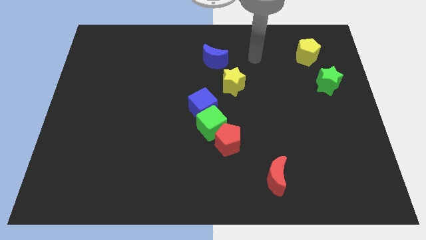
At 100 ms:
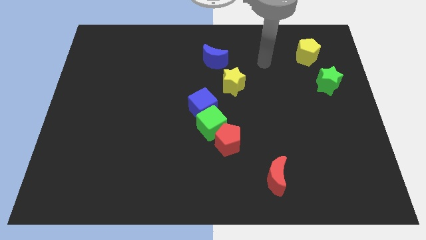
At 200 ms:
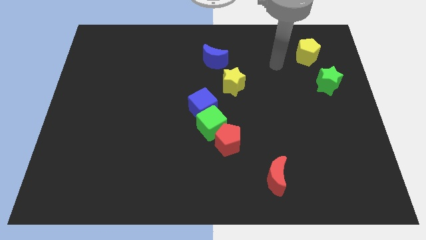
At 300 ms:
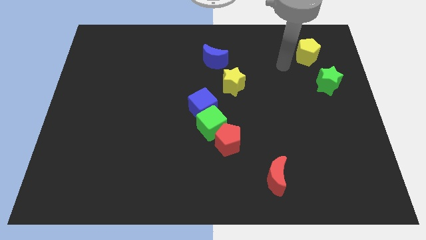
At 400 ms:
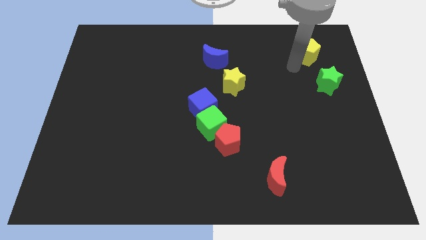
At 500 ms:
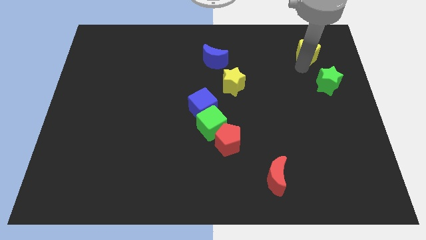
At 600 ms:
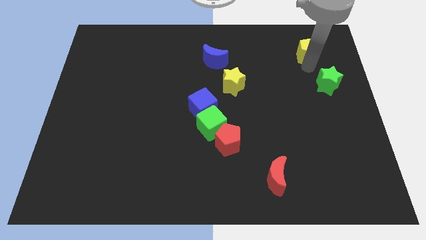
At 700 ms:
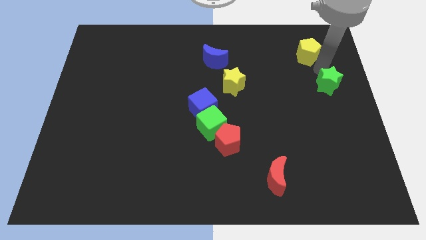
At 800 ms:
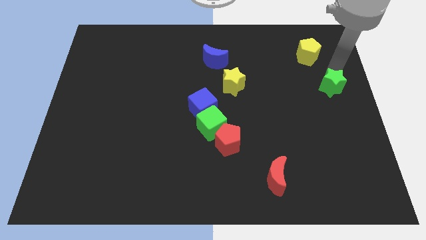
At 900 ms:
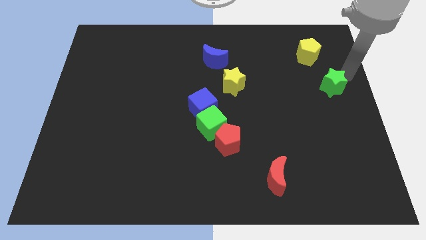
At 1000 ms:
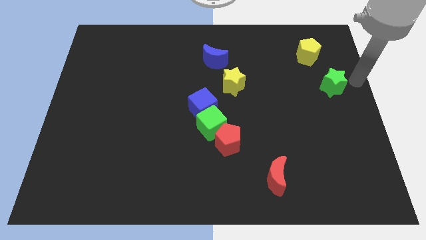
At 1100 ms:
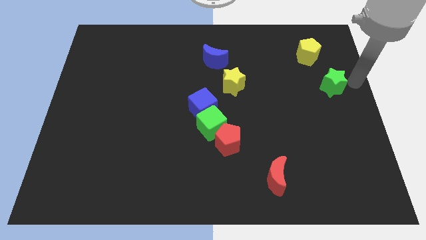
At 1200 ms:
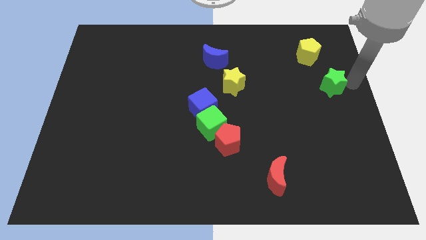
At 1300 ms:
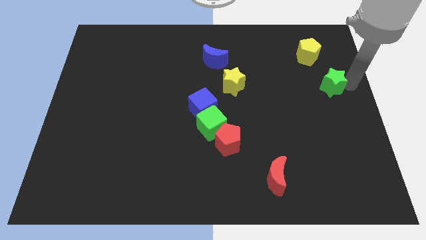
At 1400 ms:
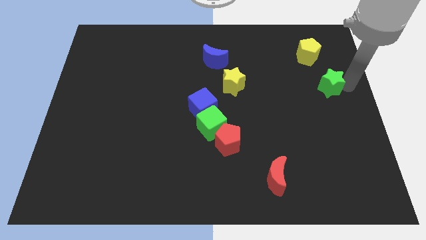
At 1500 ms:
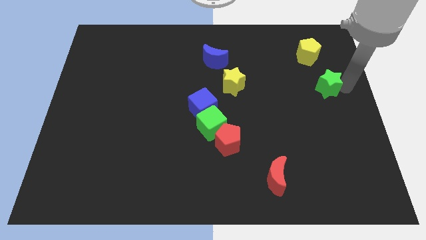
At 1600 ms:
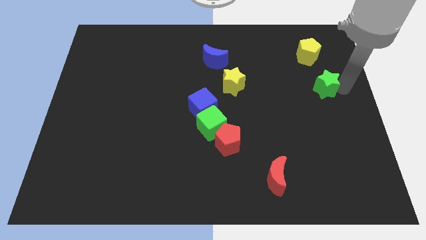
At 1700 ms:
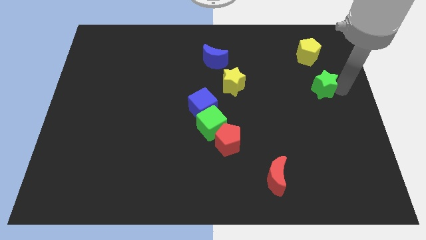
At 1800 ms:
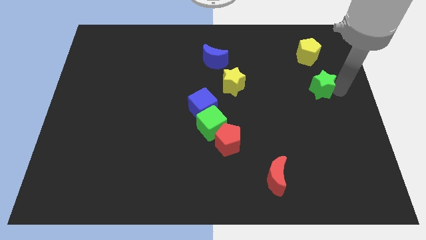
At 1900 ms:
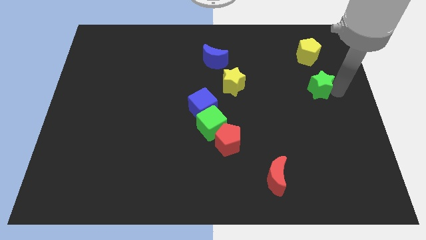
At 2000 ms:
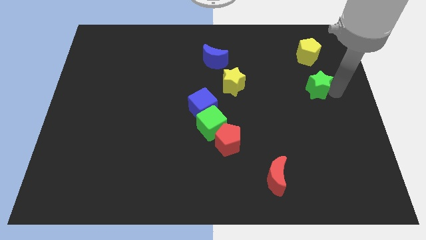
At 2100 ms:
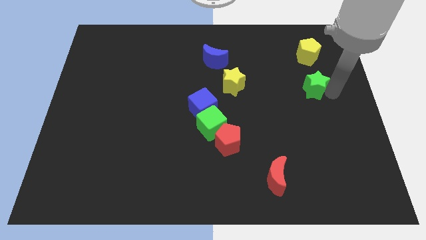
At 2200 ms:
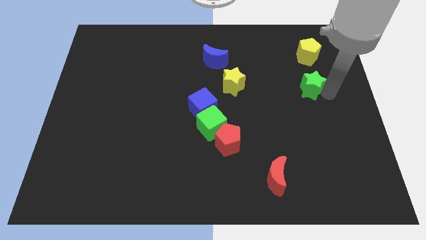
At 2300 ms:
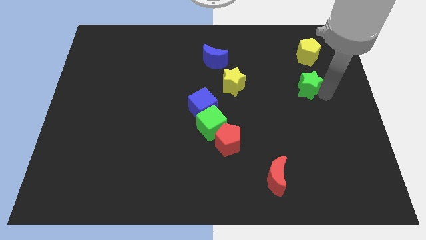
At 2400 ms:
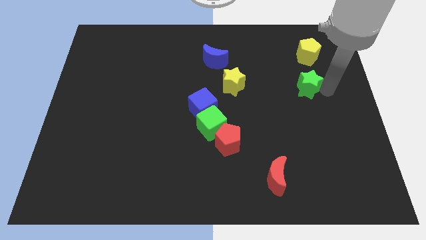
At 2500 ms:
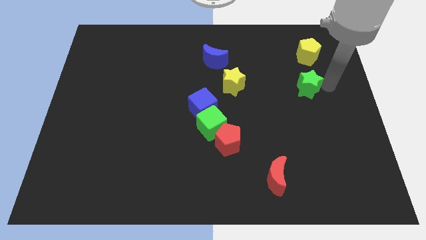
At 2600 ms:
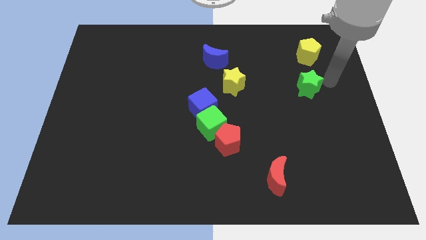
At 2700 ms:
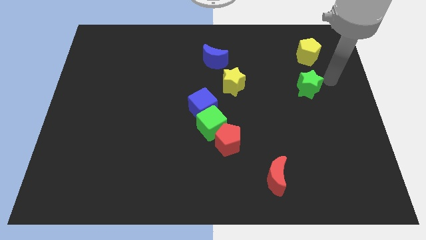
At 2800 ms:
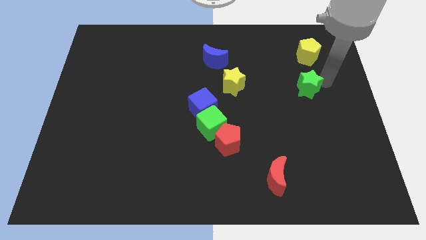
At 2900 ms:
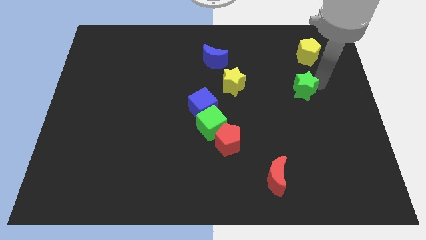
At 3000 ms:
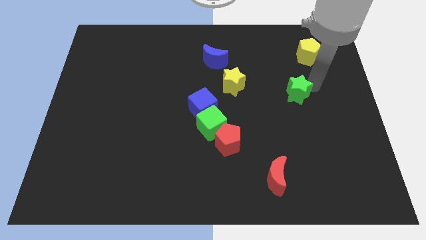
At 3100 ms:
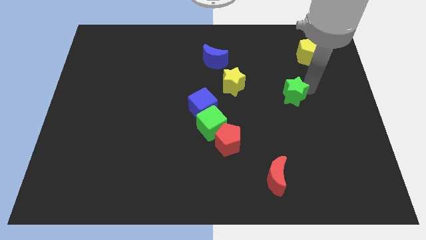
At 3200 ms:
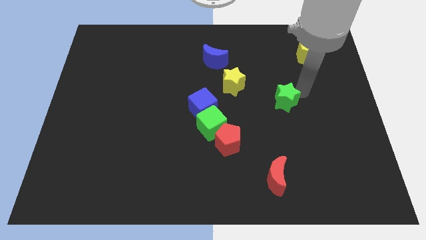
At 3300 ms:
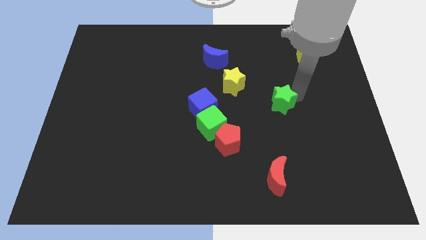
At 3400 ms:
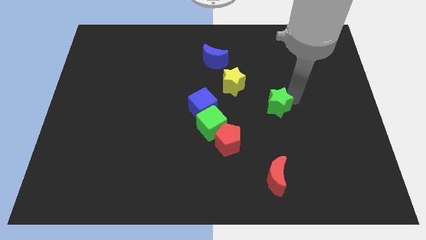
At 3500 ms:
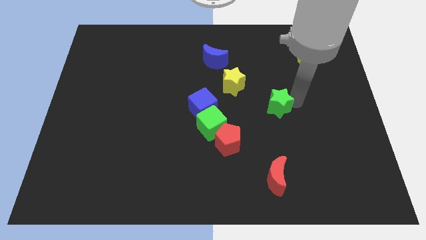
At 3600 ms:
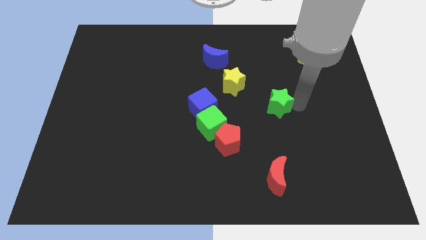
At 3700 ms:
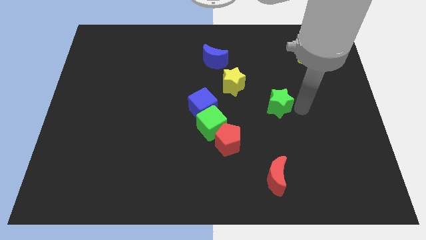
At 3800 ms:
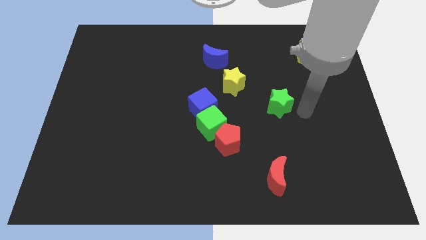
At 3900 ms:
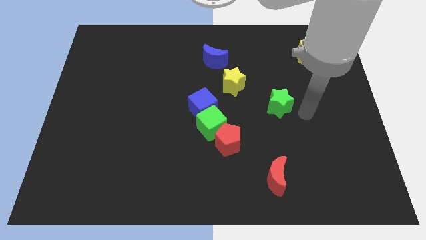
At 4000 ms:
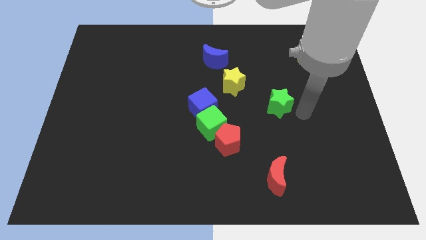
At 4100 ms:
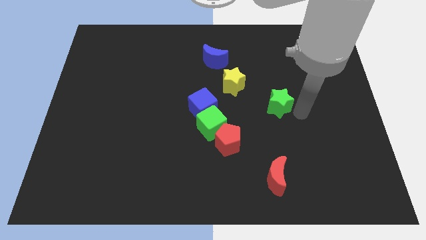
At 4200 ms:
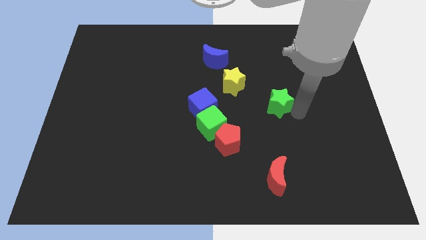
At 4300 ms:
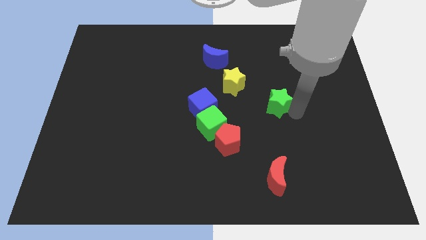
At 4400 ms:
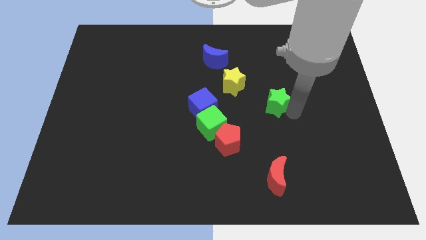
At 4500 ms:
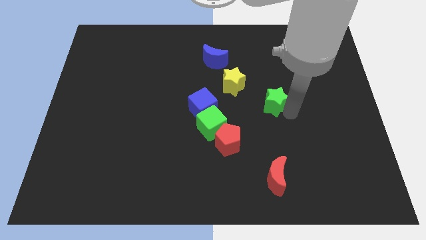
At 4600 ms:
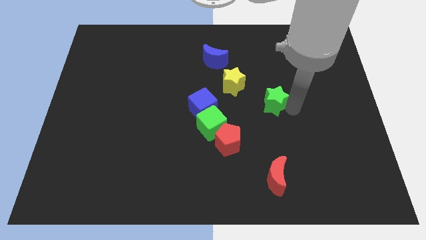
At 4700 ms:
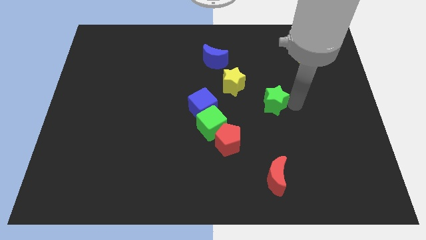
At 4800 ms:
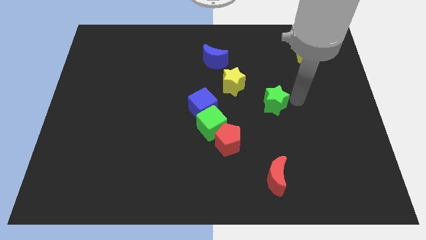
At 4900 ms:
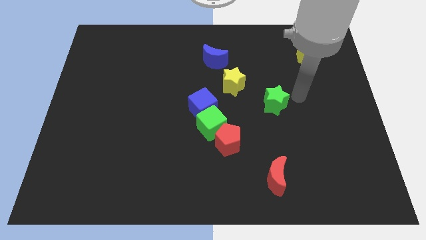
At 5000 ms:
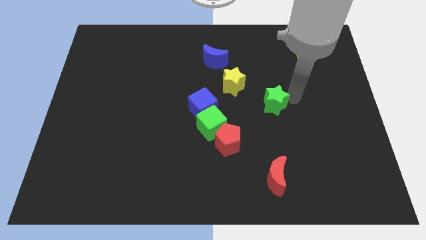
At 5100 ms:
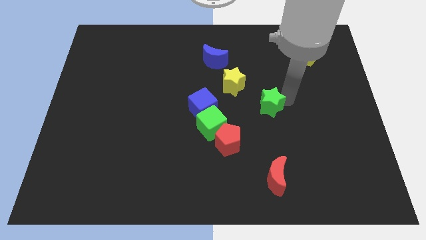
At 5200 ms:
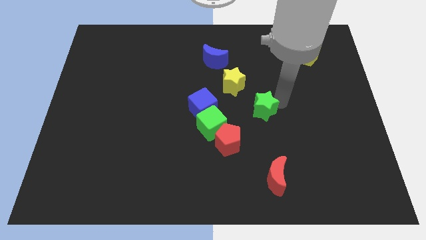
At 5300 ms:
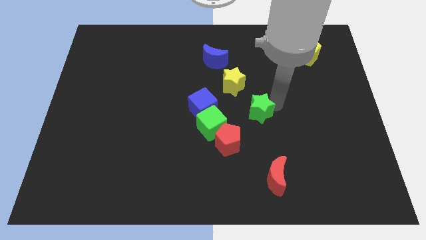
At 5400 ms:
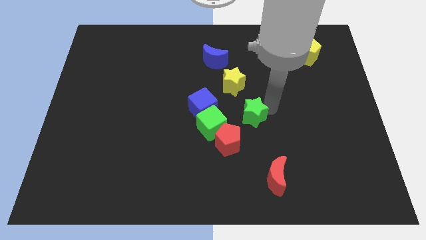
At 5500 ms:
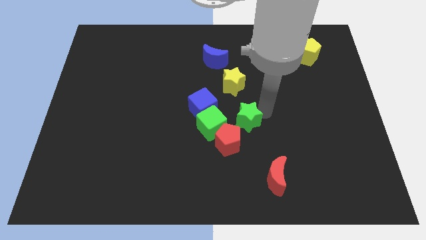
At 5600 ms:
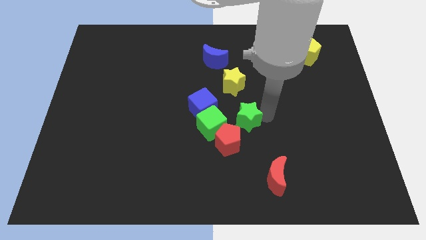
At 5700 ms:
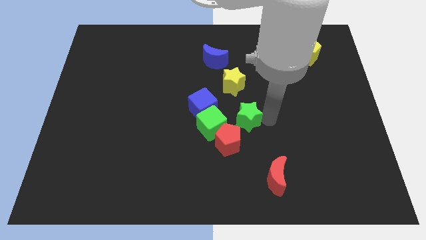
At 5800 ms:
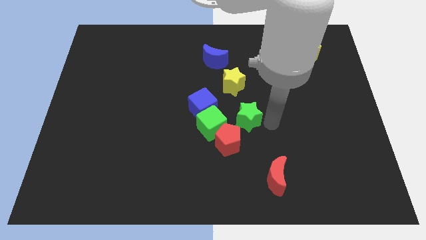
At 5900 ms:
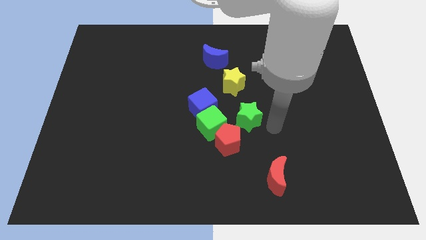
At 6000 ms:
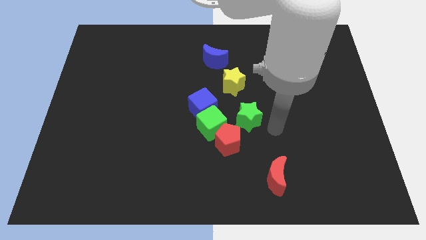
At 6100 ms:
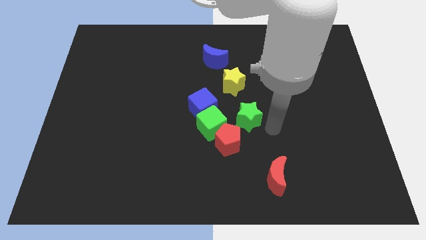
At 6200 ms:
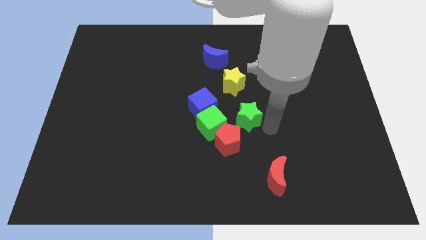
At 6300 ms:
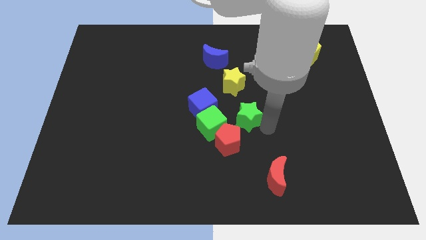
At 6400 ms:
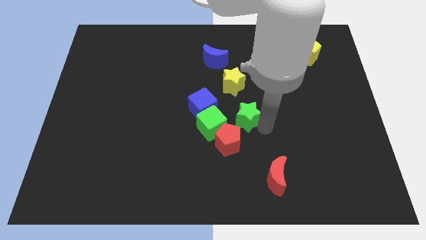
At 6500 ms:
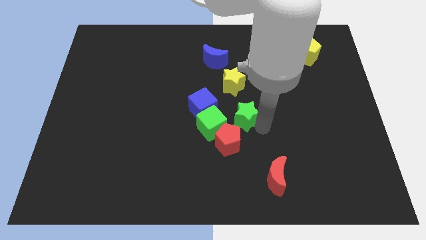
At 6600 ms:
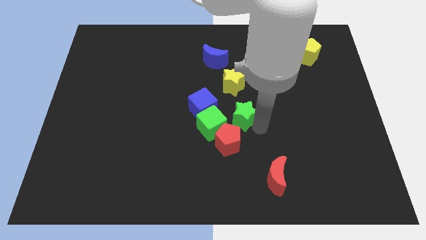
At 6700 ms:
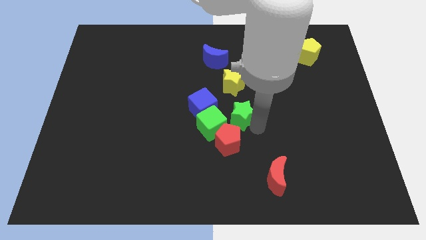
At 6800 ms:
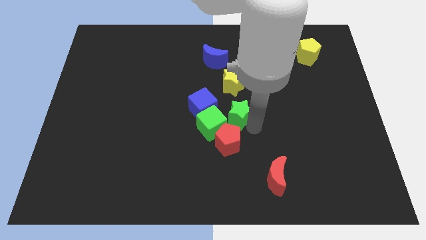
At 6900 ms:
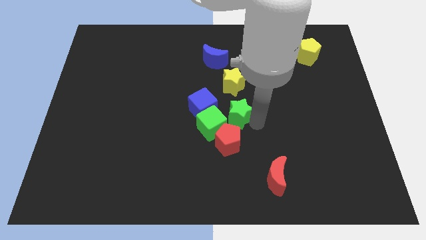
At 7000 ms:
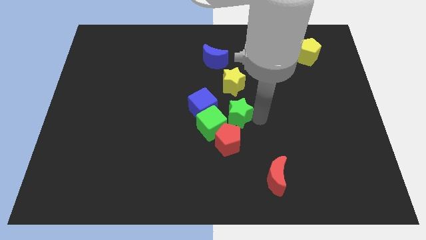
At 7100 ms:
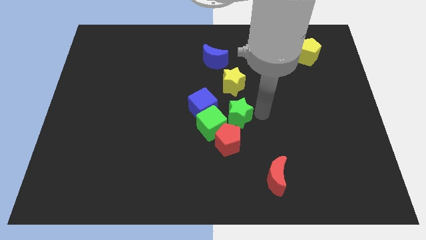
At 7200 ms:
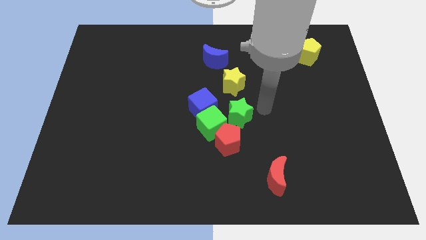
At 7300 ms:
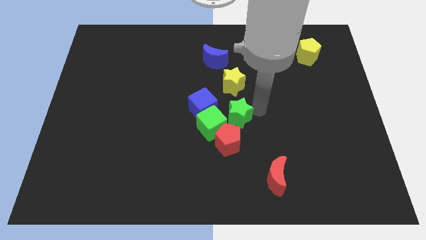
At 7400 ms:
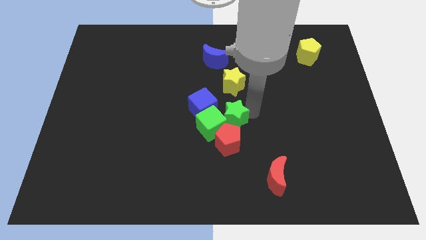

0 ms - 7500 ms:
move the green star next to the green cube

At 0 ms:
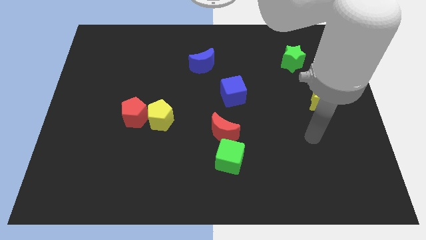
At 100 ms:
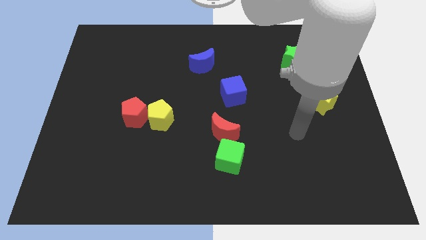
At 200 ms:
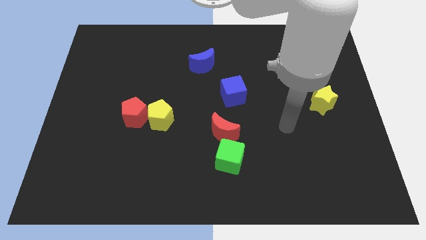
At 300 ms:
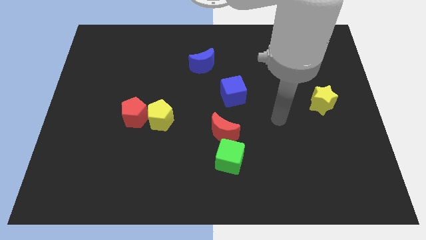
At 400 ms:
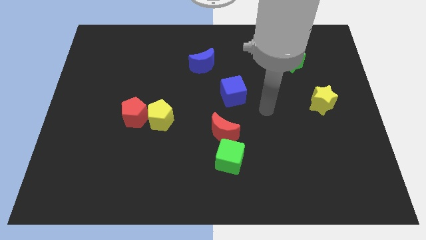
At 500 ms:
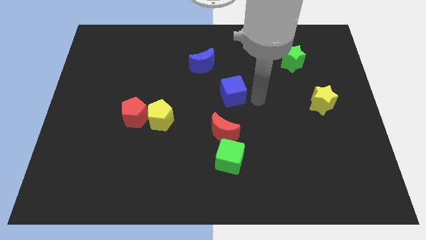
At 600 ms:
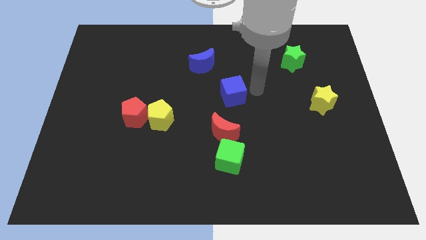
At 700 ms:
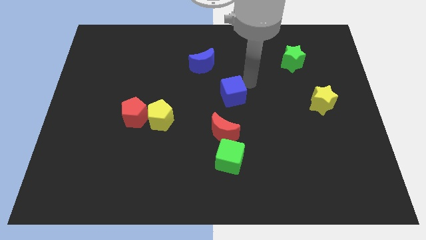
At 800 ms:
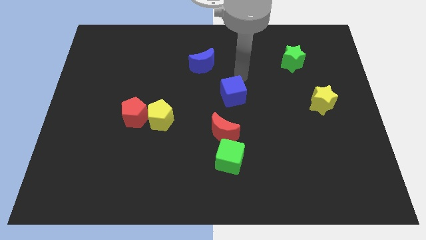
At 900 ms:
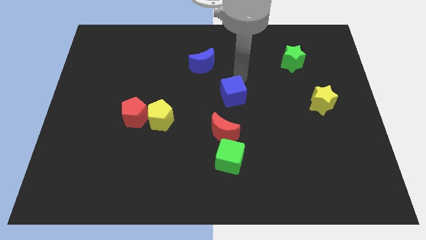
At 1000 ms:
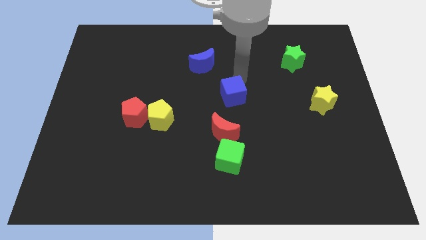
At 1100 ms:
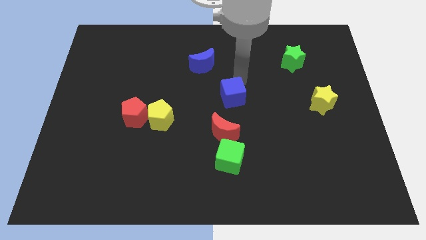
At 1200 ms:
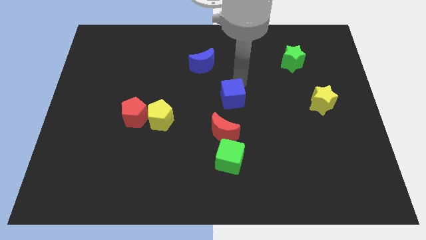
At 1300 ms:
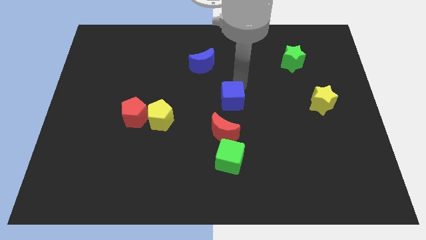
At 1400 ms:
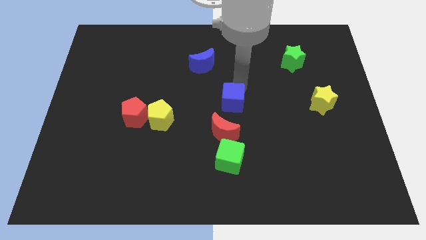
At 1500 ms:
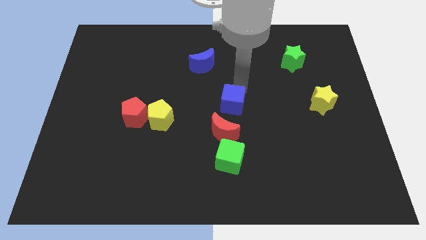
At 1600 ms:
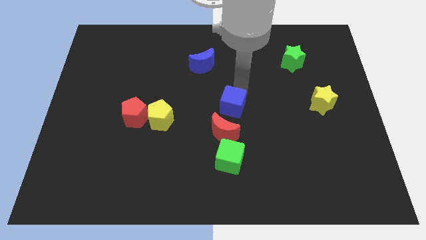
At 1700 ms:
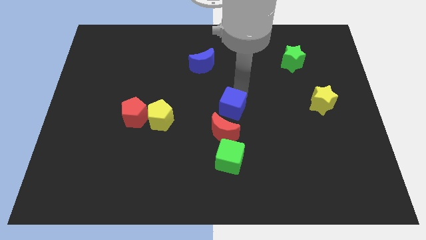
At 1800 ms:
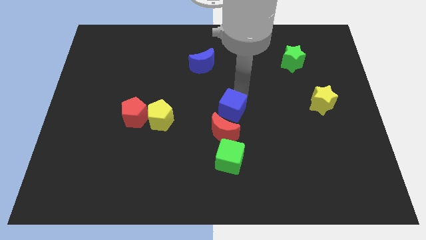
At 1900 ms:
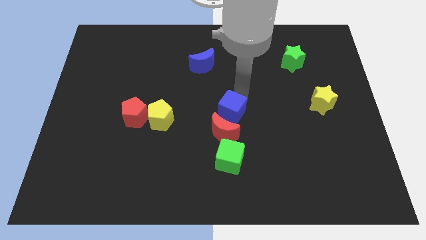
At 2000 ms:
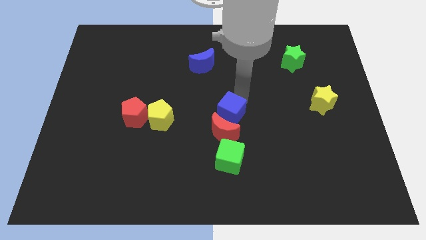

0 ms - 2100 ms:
move the blue cube to the red moon
